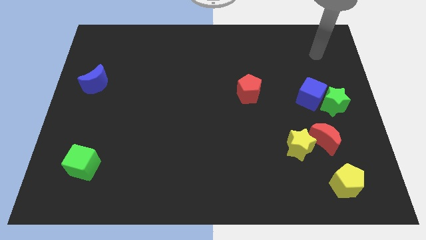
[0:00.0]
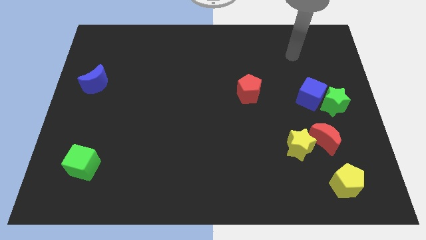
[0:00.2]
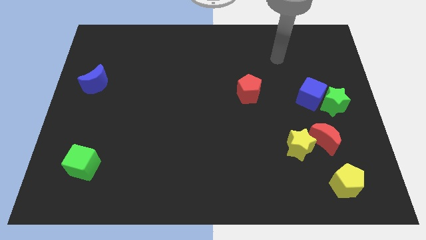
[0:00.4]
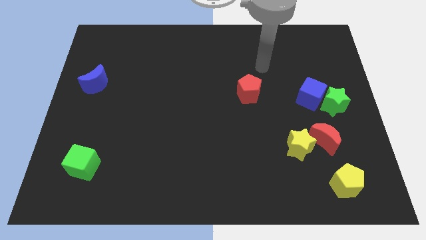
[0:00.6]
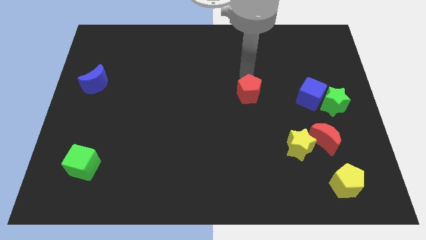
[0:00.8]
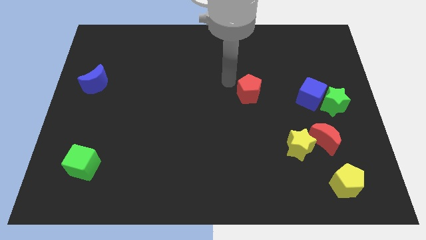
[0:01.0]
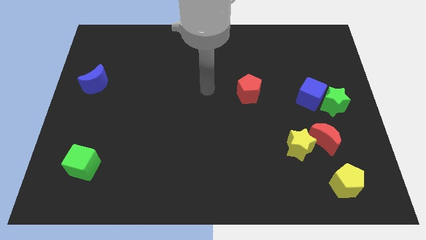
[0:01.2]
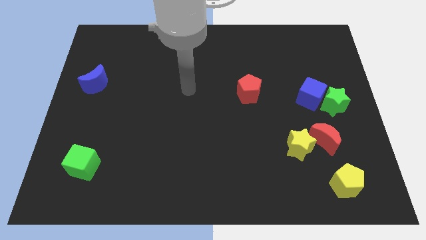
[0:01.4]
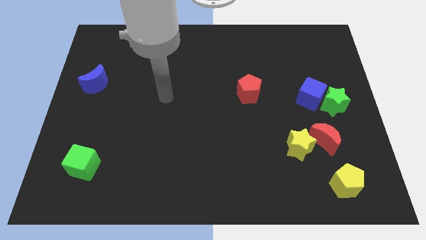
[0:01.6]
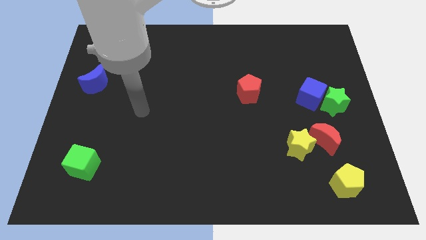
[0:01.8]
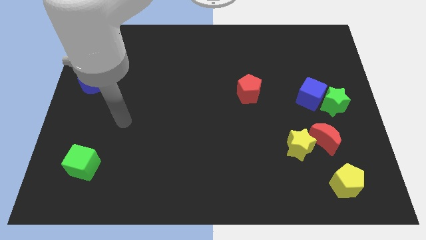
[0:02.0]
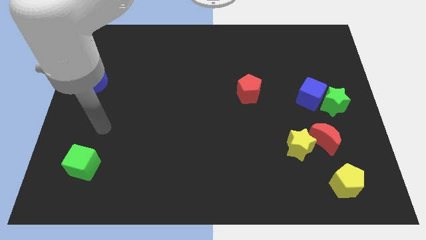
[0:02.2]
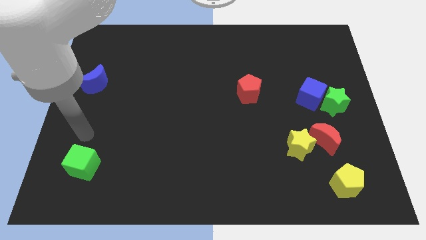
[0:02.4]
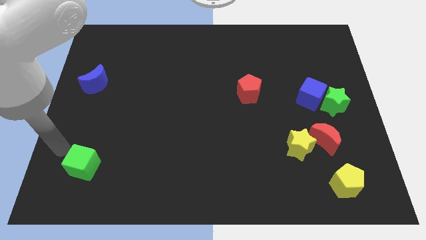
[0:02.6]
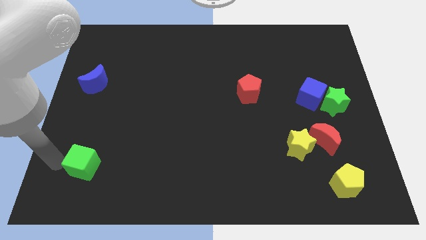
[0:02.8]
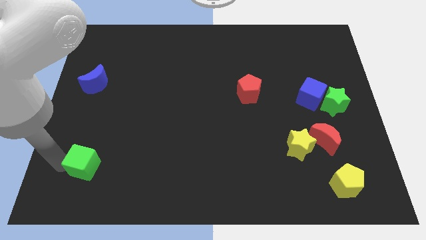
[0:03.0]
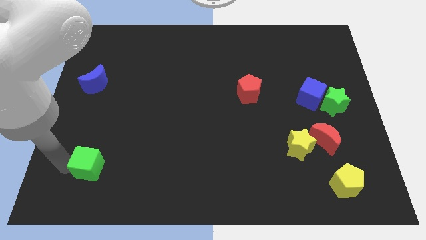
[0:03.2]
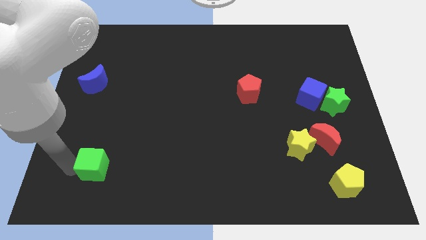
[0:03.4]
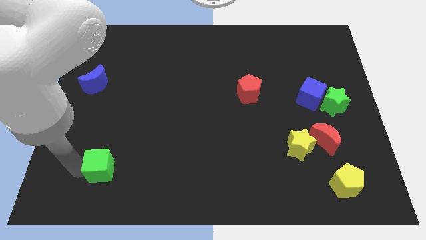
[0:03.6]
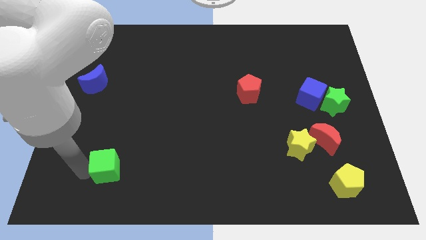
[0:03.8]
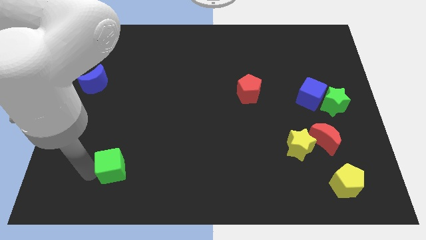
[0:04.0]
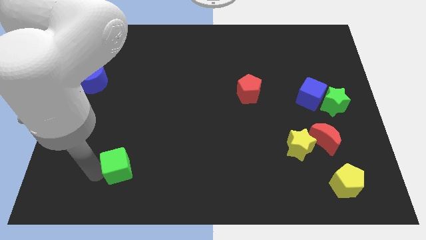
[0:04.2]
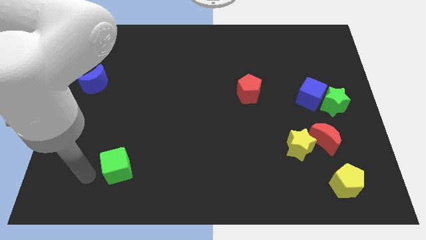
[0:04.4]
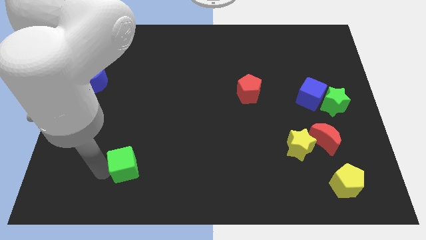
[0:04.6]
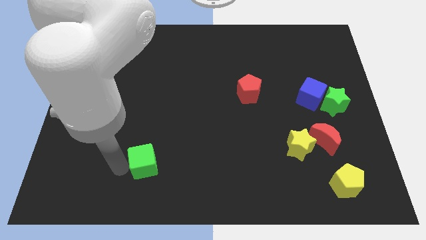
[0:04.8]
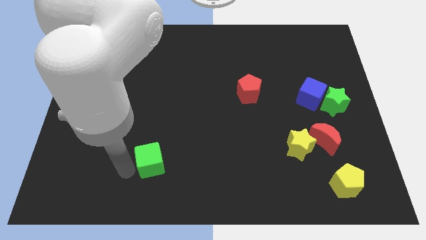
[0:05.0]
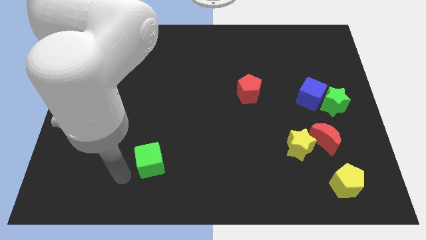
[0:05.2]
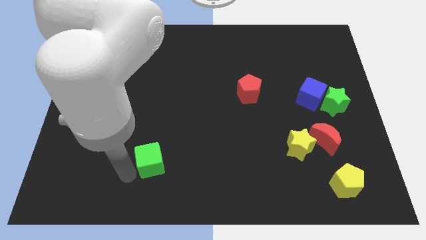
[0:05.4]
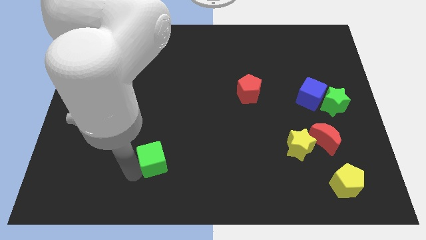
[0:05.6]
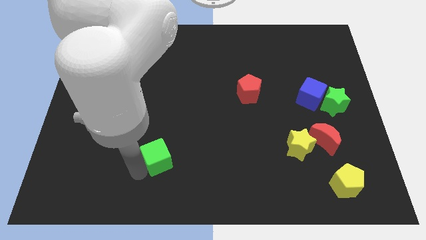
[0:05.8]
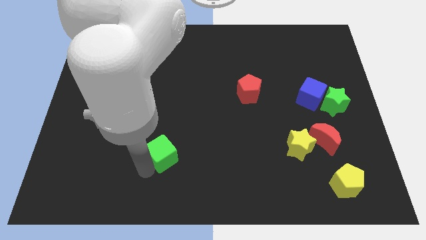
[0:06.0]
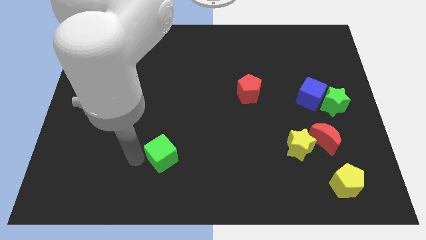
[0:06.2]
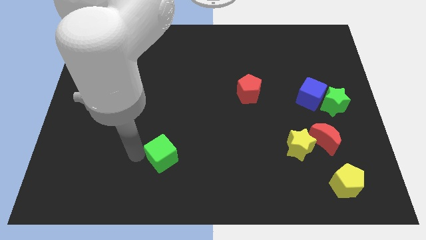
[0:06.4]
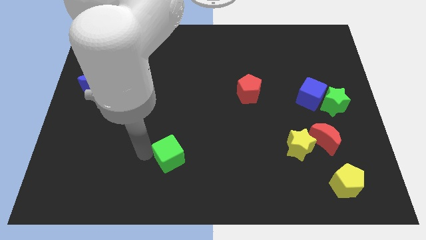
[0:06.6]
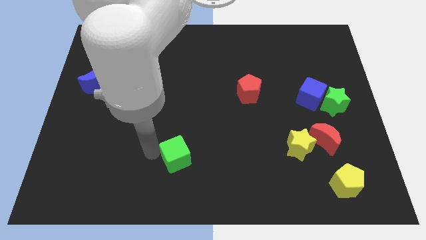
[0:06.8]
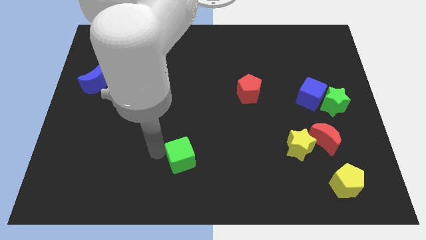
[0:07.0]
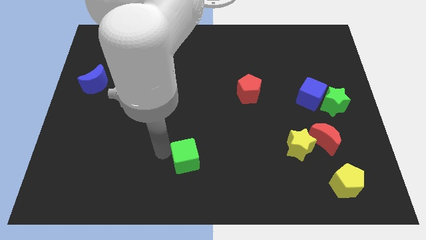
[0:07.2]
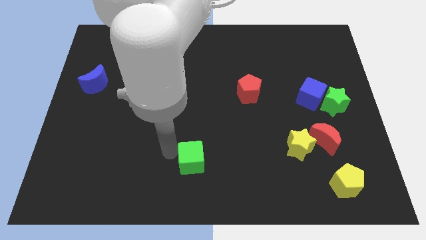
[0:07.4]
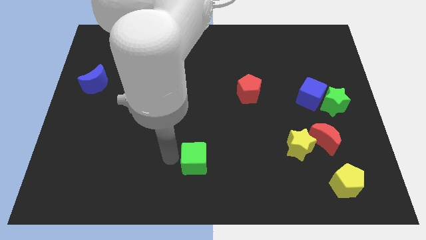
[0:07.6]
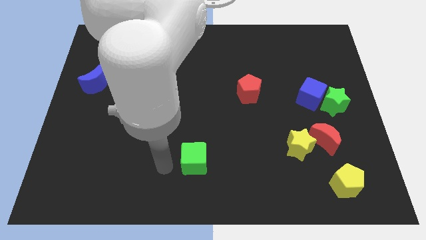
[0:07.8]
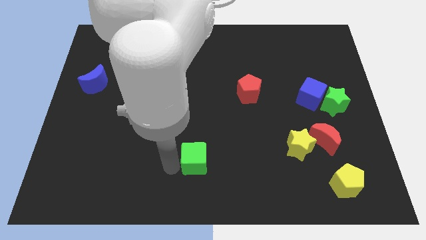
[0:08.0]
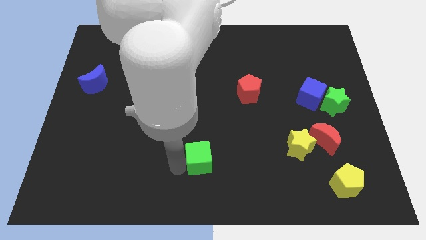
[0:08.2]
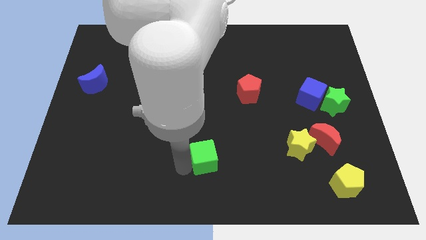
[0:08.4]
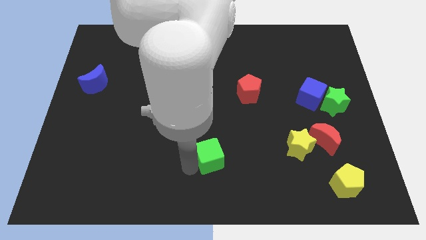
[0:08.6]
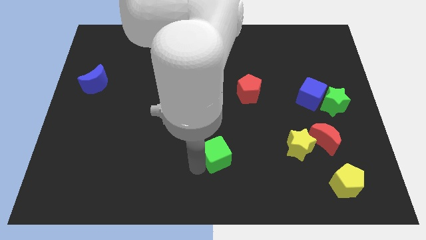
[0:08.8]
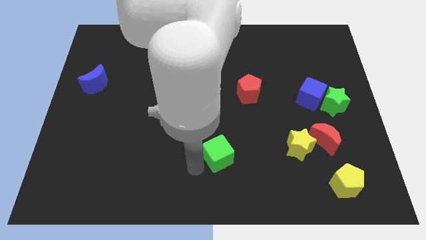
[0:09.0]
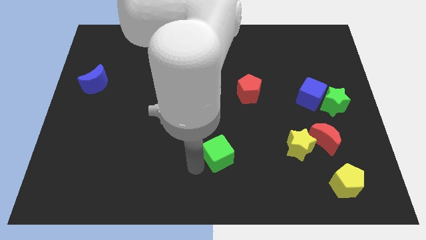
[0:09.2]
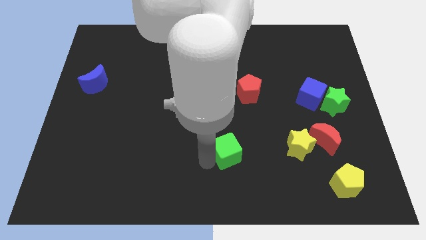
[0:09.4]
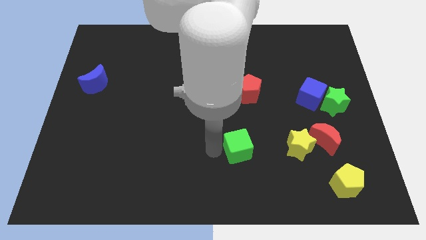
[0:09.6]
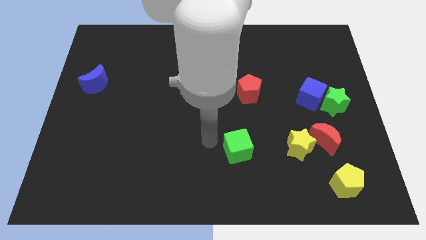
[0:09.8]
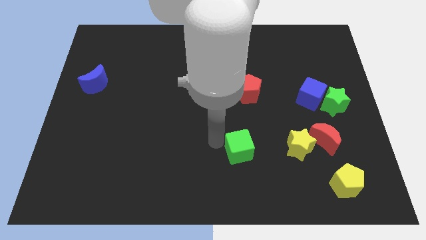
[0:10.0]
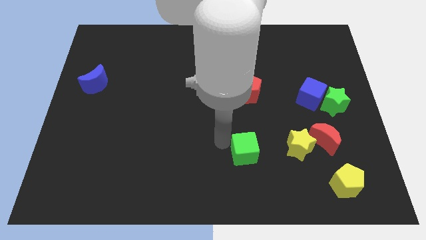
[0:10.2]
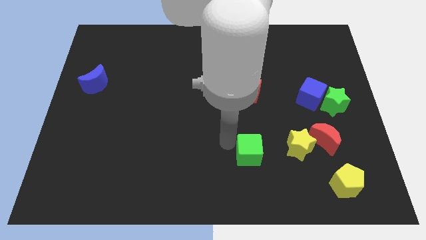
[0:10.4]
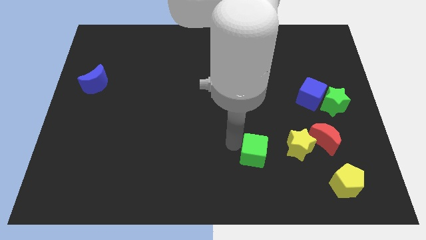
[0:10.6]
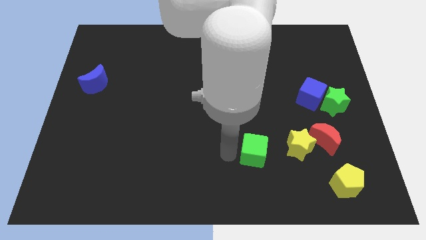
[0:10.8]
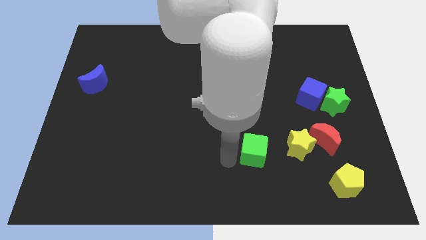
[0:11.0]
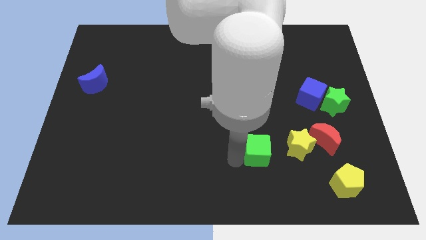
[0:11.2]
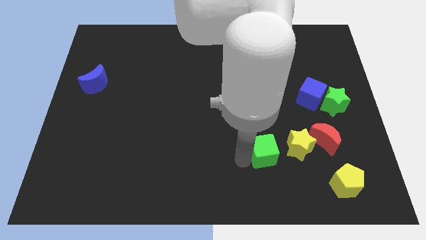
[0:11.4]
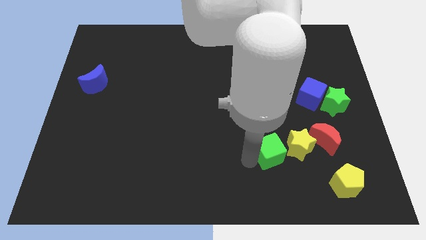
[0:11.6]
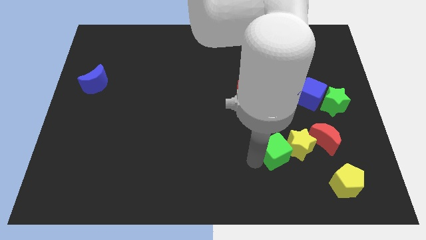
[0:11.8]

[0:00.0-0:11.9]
slide the green cube to the yellow star

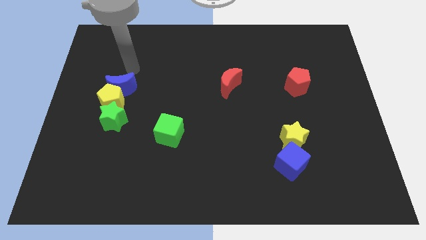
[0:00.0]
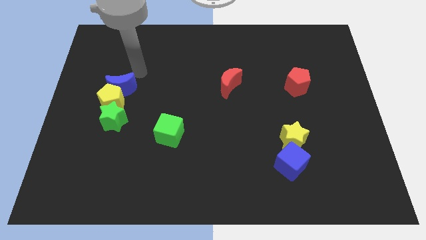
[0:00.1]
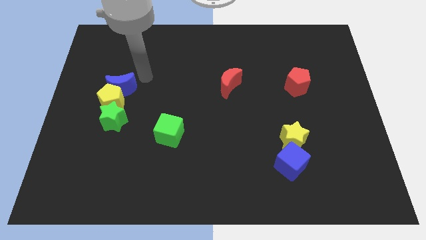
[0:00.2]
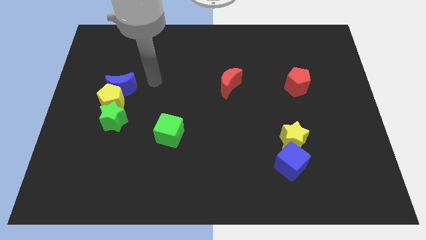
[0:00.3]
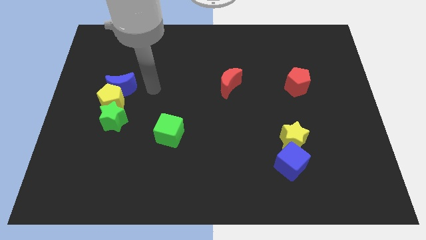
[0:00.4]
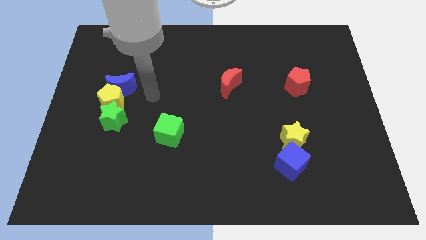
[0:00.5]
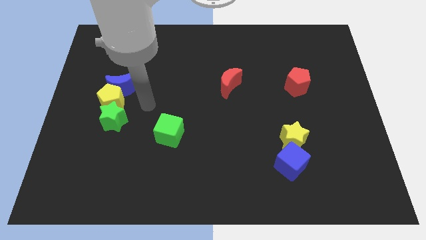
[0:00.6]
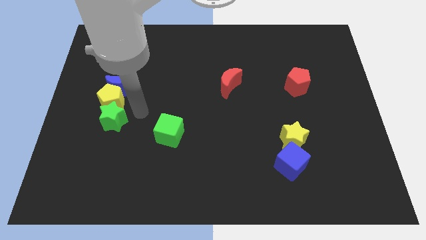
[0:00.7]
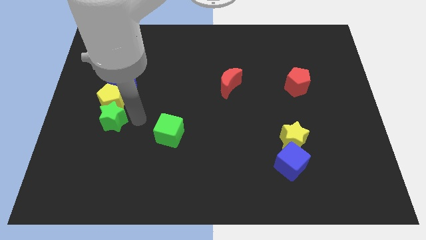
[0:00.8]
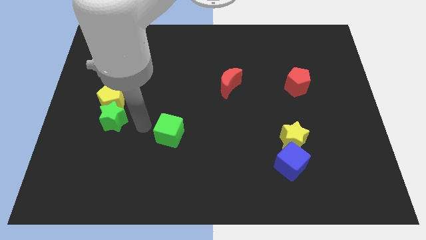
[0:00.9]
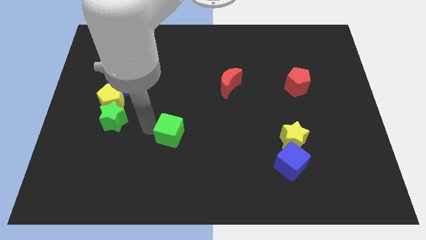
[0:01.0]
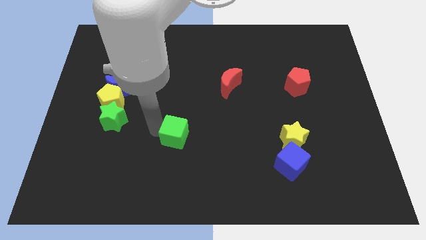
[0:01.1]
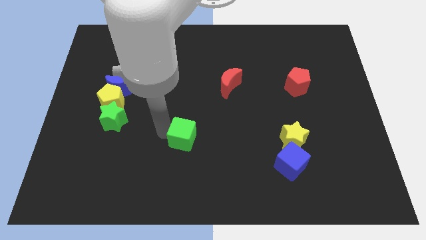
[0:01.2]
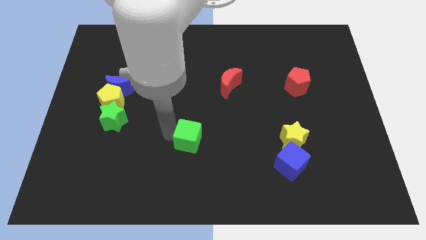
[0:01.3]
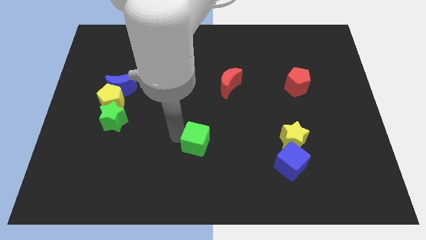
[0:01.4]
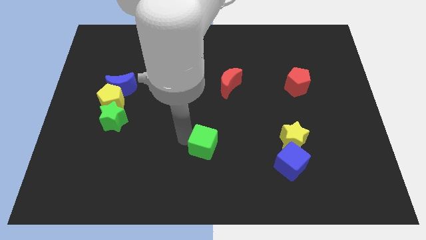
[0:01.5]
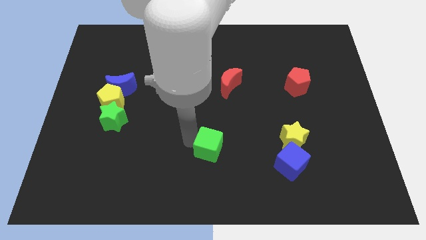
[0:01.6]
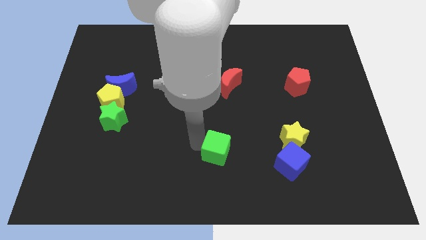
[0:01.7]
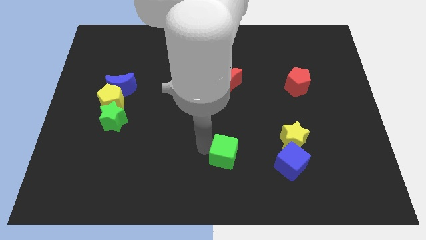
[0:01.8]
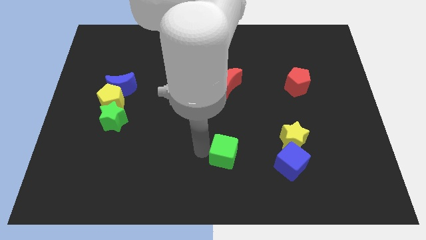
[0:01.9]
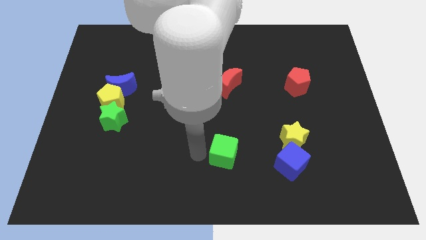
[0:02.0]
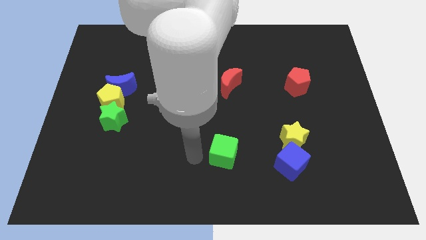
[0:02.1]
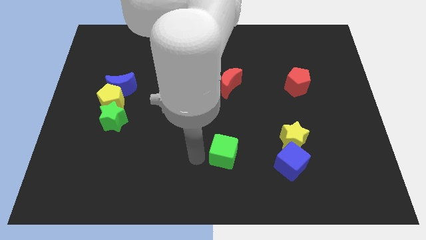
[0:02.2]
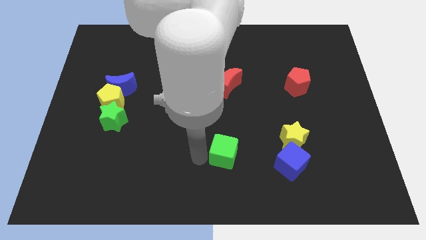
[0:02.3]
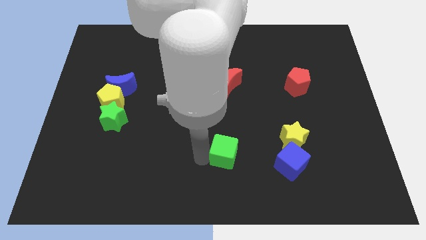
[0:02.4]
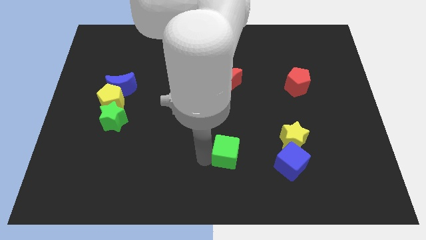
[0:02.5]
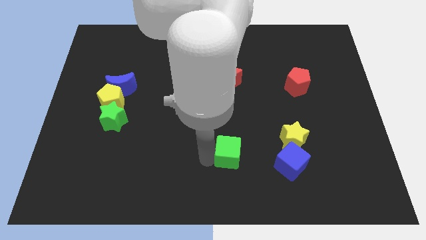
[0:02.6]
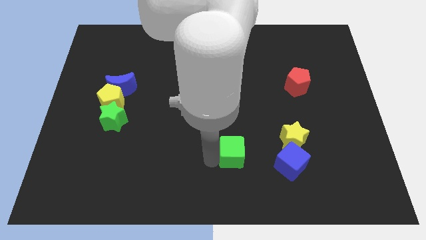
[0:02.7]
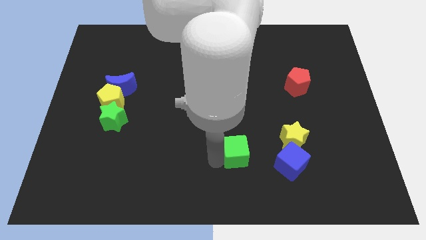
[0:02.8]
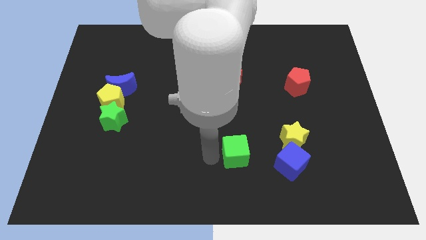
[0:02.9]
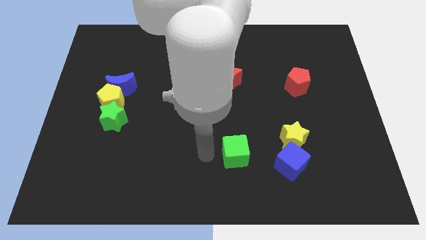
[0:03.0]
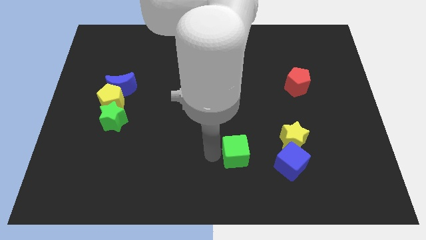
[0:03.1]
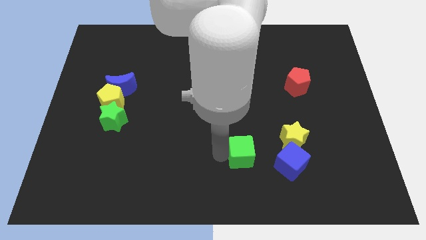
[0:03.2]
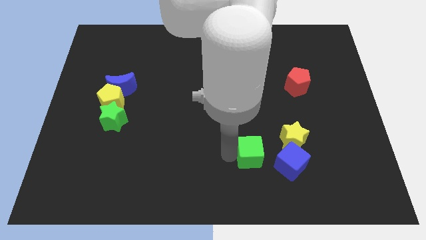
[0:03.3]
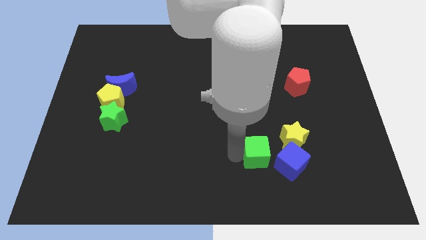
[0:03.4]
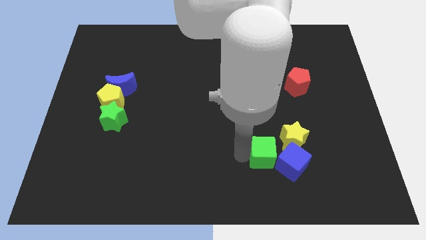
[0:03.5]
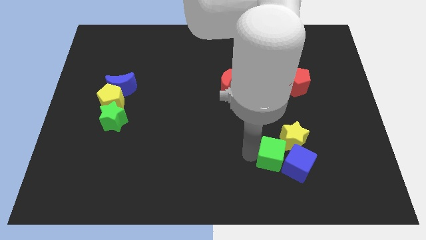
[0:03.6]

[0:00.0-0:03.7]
push the green cube next to the blue cube
